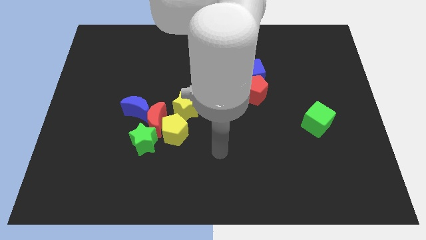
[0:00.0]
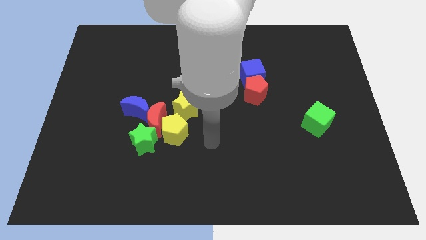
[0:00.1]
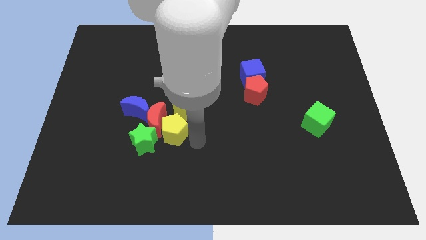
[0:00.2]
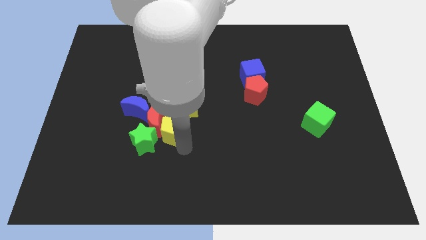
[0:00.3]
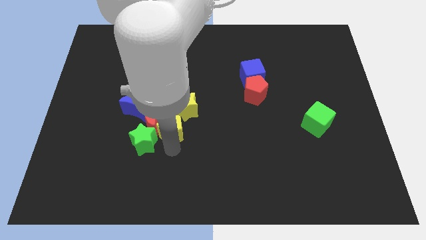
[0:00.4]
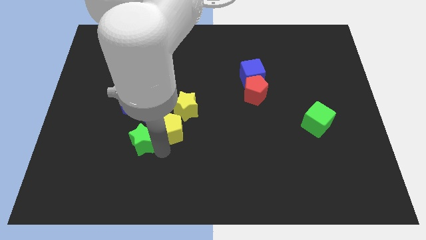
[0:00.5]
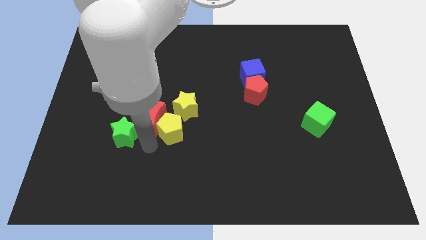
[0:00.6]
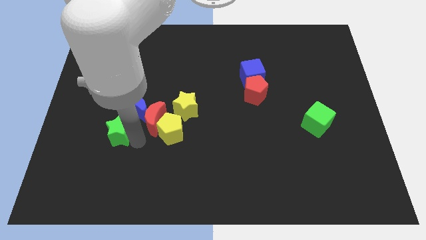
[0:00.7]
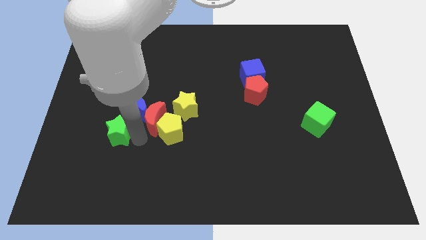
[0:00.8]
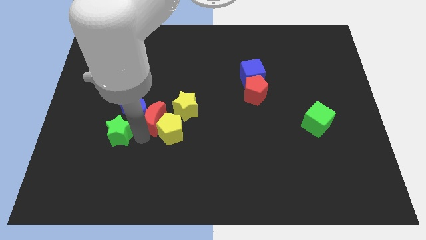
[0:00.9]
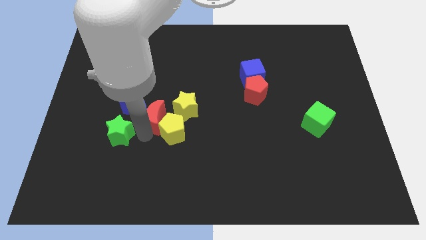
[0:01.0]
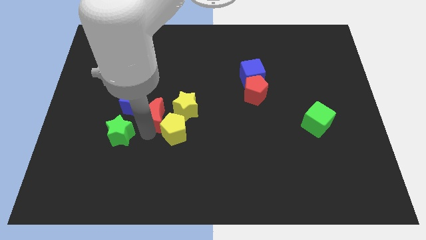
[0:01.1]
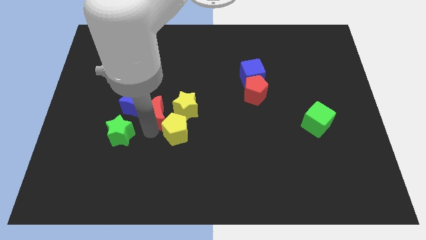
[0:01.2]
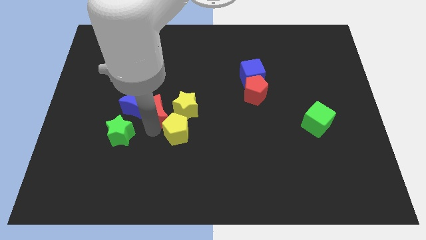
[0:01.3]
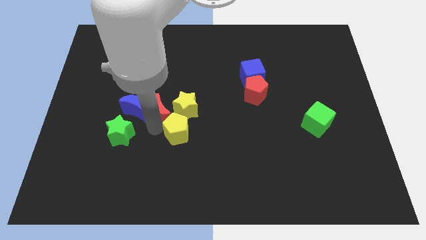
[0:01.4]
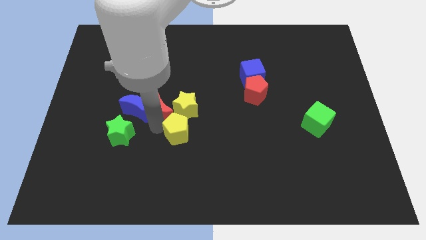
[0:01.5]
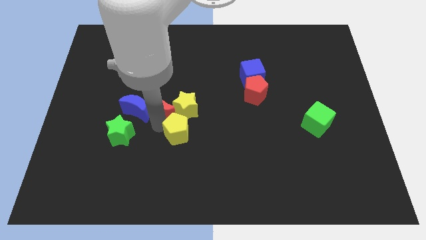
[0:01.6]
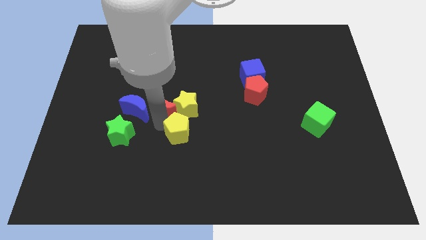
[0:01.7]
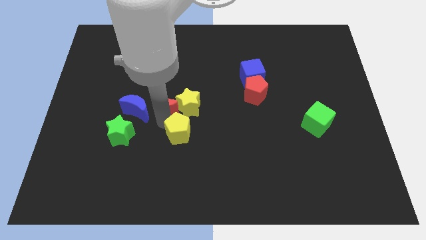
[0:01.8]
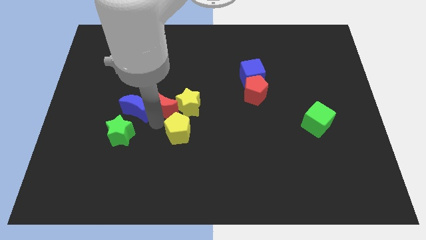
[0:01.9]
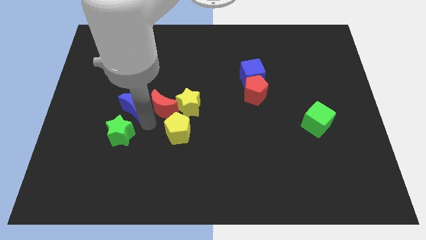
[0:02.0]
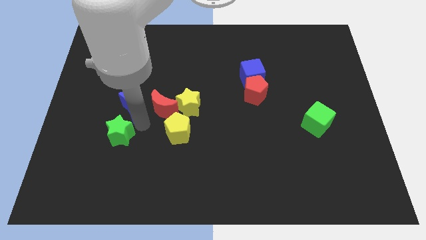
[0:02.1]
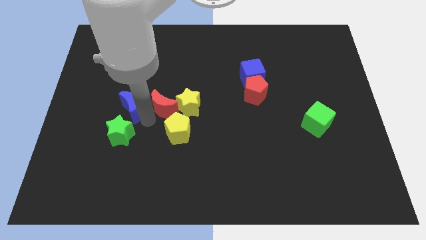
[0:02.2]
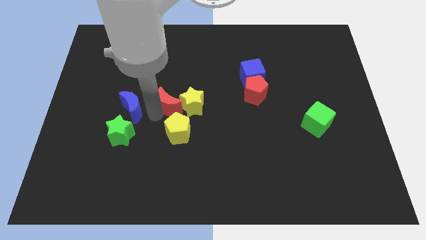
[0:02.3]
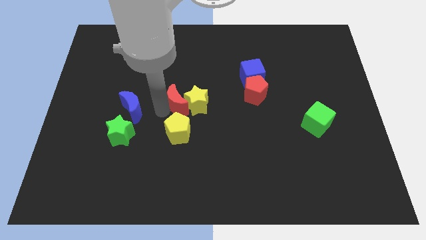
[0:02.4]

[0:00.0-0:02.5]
push the red moon up and right diagonally a bit

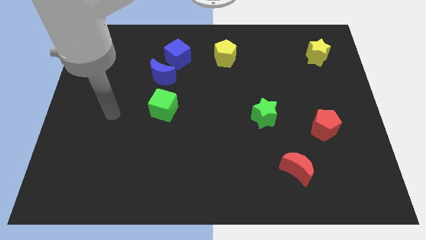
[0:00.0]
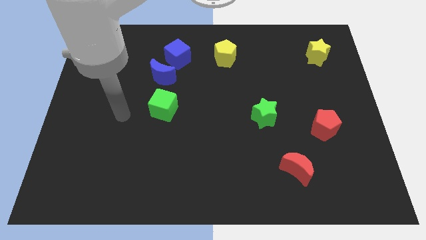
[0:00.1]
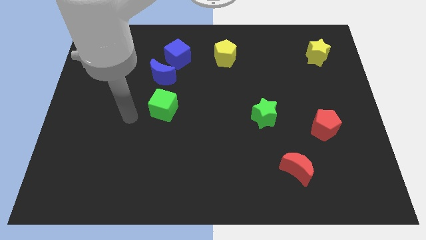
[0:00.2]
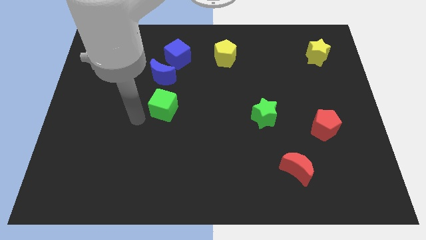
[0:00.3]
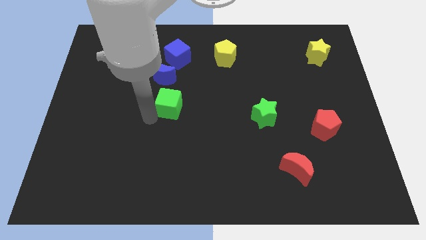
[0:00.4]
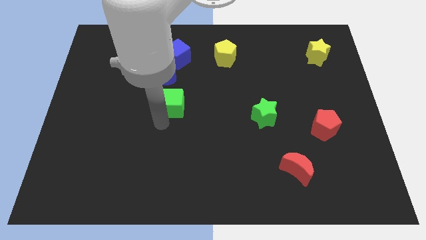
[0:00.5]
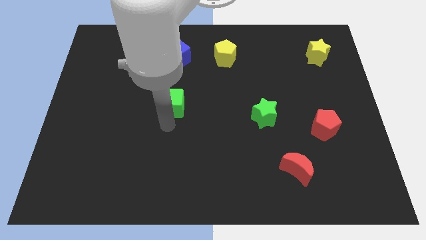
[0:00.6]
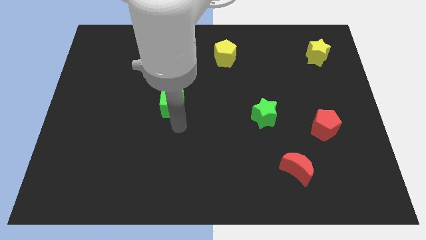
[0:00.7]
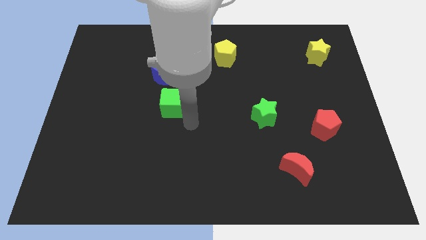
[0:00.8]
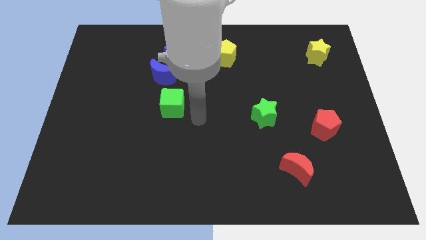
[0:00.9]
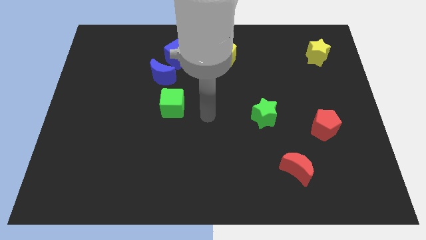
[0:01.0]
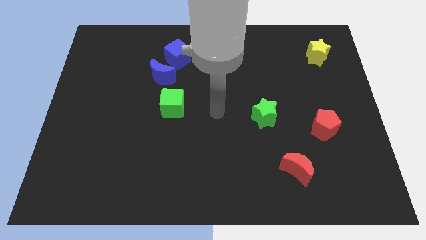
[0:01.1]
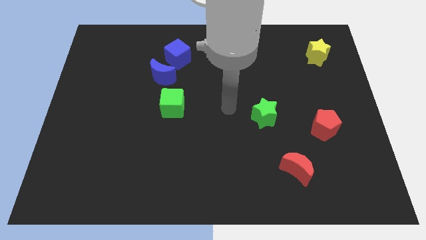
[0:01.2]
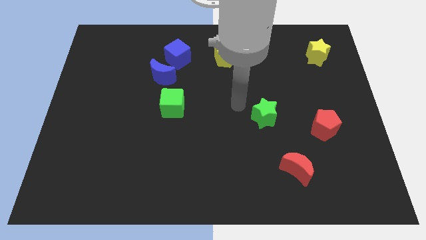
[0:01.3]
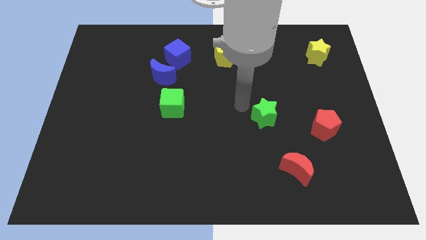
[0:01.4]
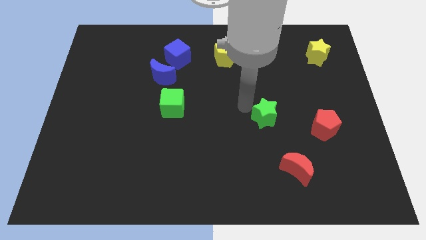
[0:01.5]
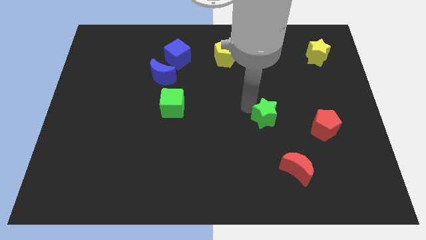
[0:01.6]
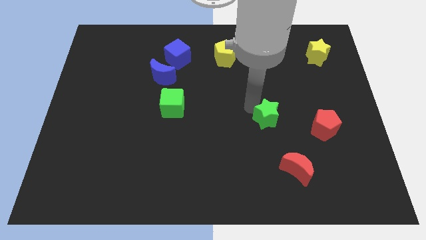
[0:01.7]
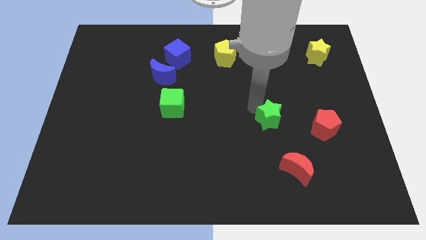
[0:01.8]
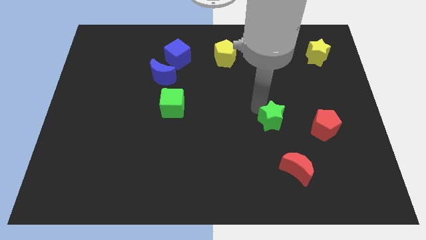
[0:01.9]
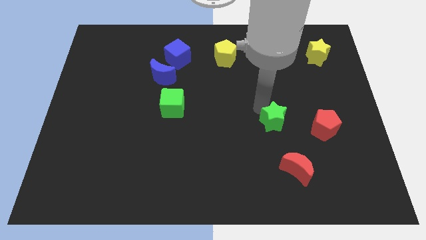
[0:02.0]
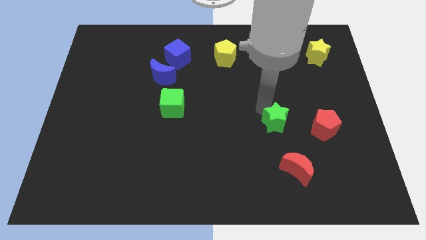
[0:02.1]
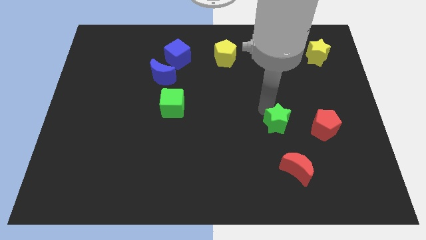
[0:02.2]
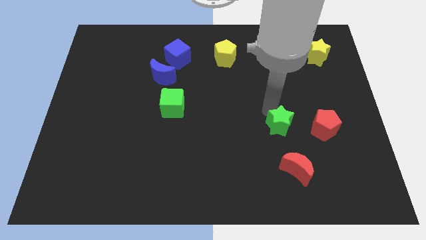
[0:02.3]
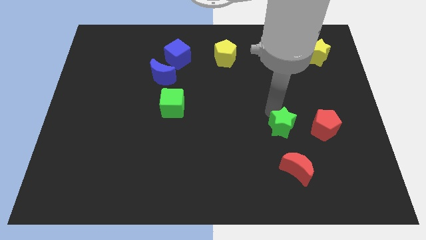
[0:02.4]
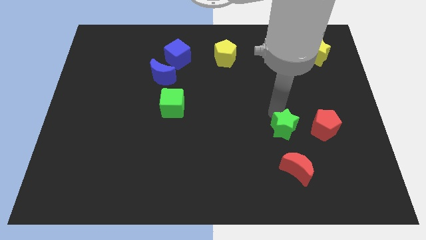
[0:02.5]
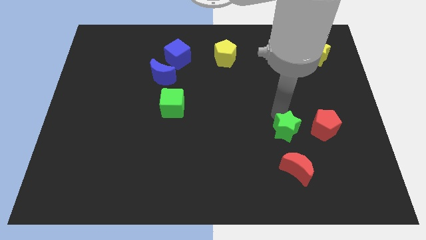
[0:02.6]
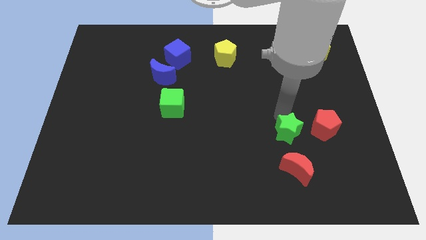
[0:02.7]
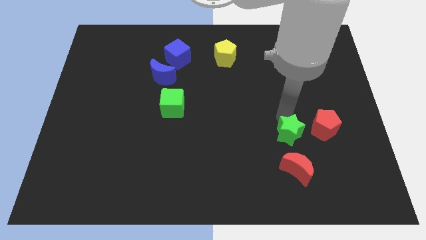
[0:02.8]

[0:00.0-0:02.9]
push the green star diagonally downwards and right a little bit

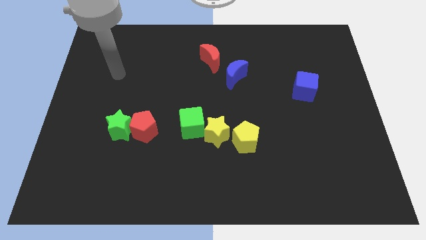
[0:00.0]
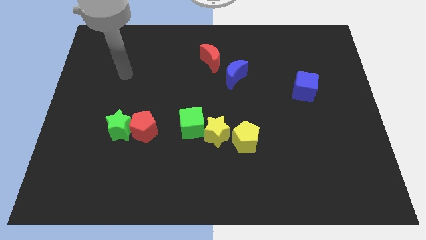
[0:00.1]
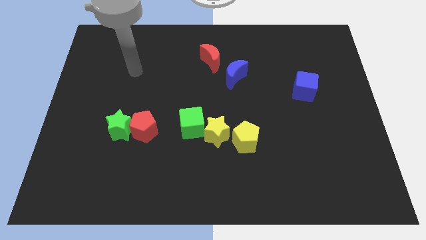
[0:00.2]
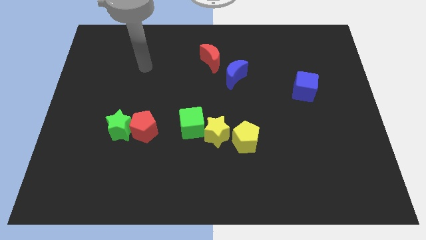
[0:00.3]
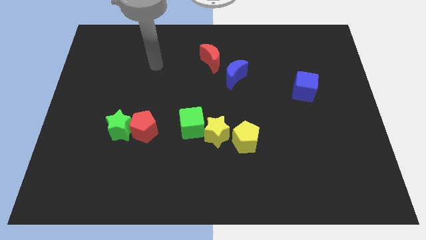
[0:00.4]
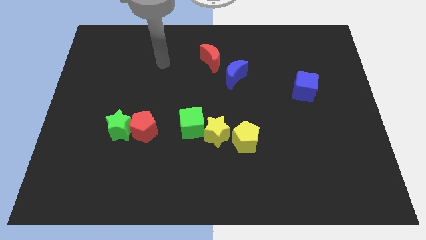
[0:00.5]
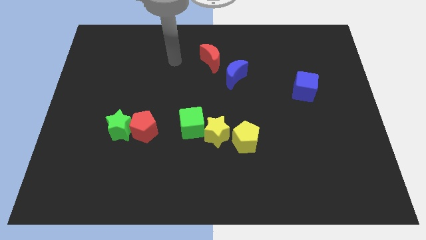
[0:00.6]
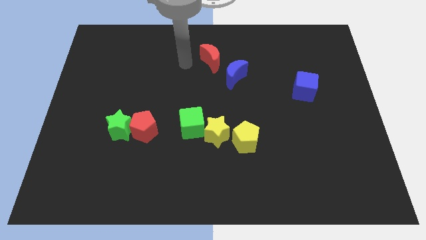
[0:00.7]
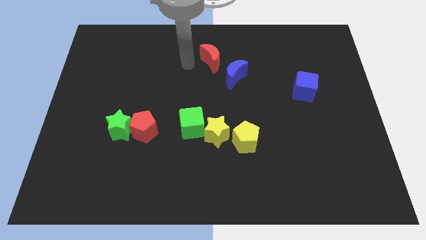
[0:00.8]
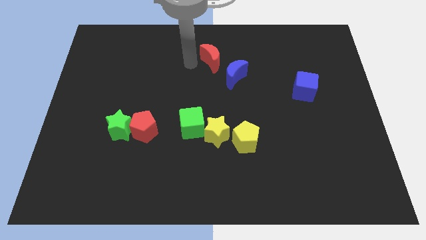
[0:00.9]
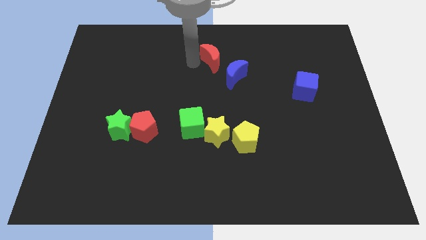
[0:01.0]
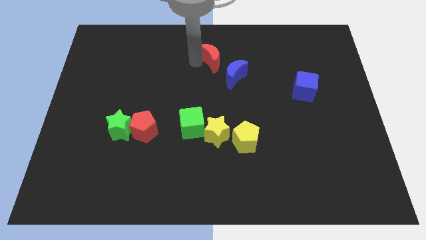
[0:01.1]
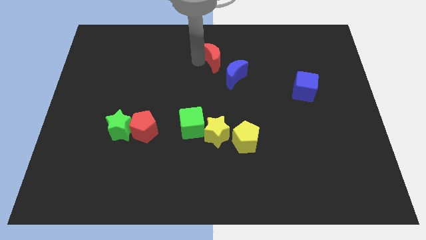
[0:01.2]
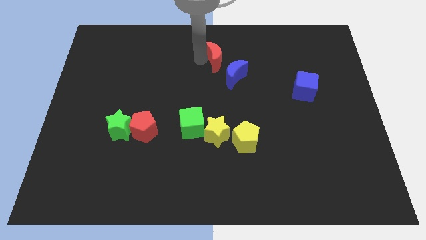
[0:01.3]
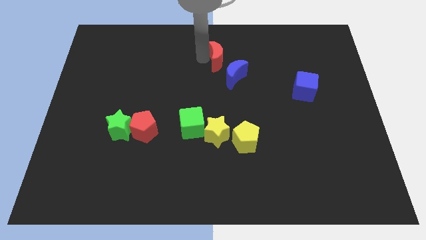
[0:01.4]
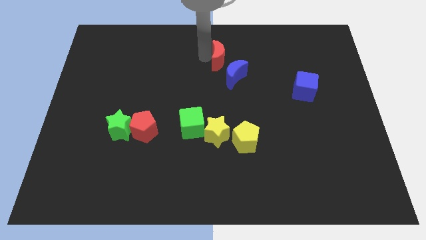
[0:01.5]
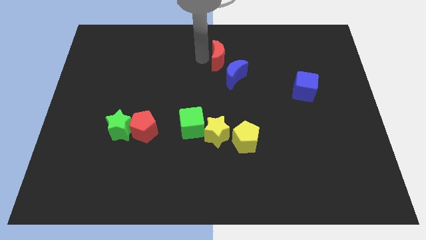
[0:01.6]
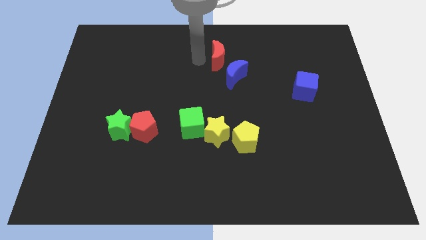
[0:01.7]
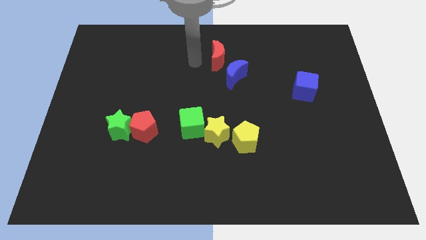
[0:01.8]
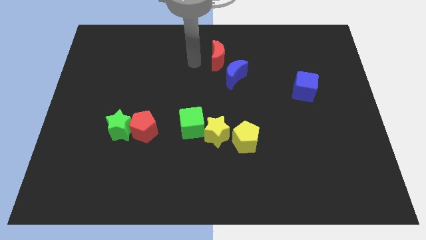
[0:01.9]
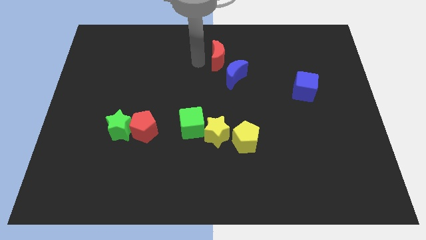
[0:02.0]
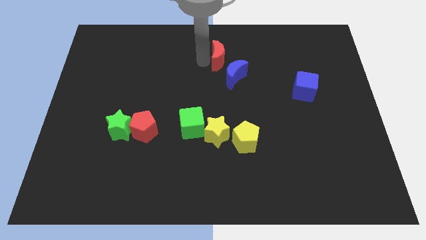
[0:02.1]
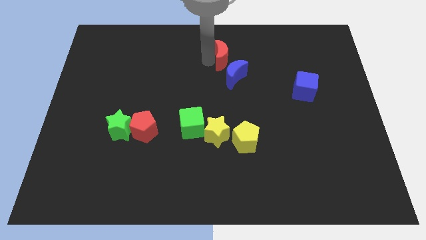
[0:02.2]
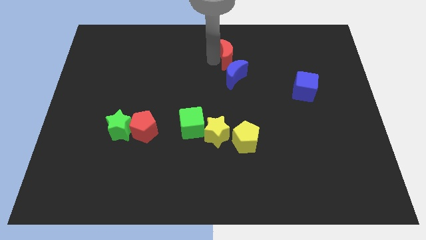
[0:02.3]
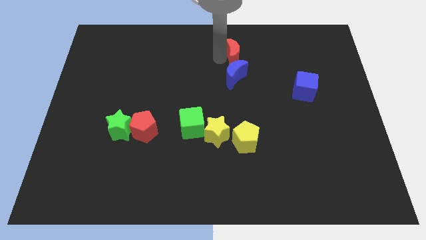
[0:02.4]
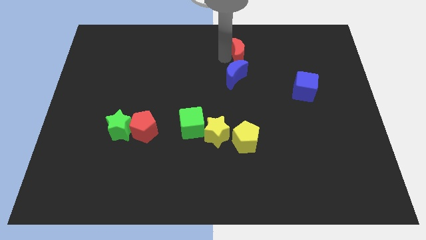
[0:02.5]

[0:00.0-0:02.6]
move the red moon to the right a bit
